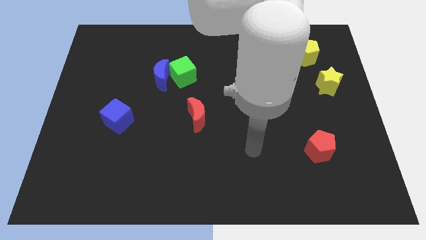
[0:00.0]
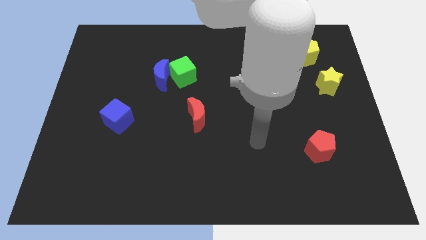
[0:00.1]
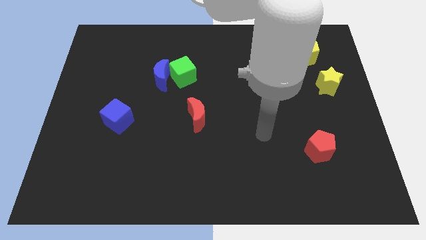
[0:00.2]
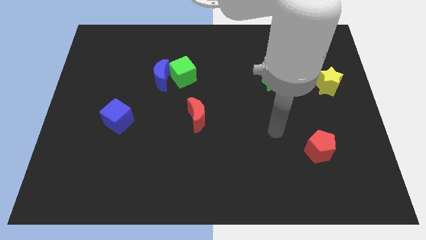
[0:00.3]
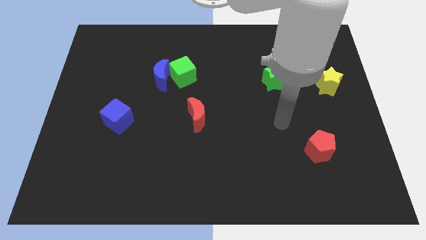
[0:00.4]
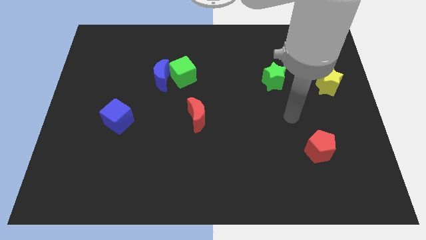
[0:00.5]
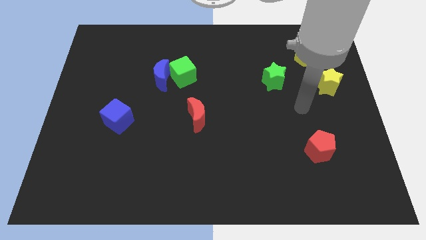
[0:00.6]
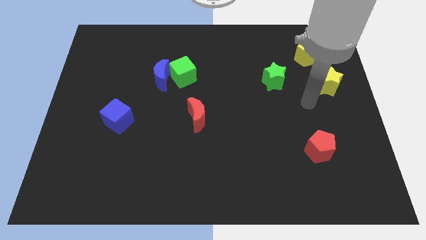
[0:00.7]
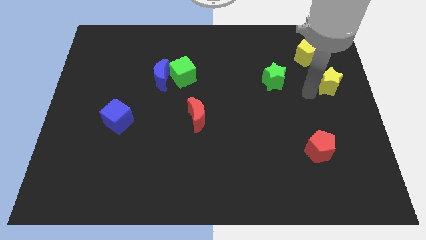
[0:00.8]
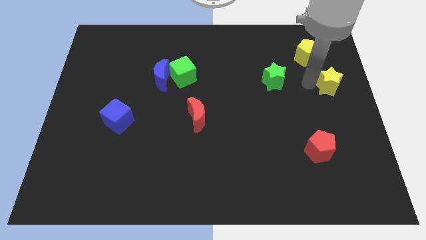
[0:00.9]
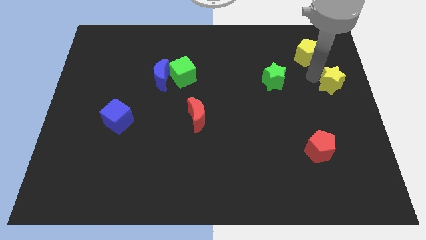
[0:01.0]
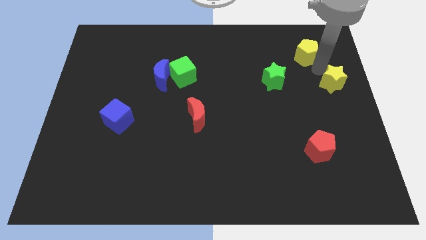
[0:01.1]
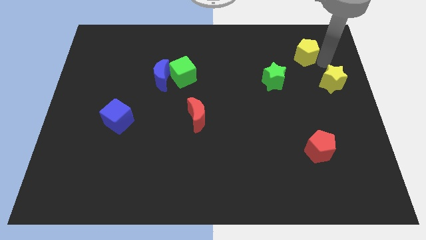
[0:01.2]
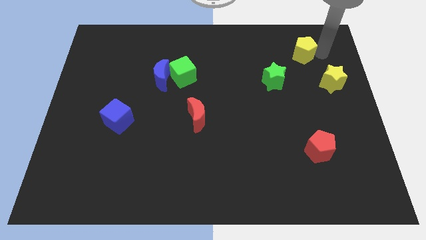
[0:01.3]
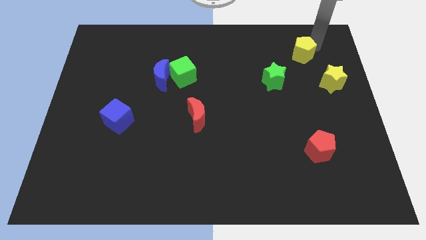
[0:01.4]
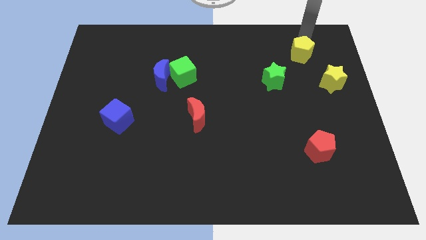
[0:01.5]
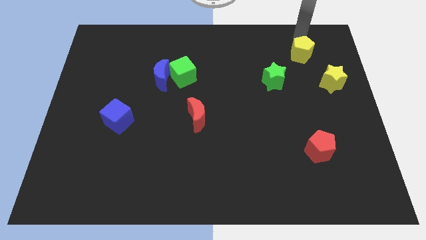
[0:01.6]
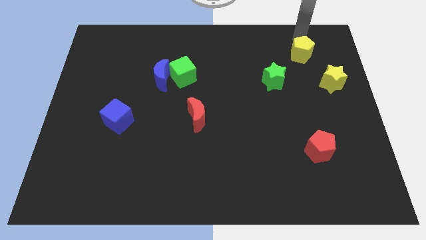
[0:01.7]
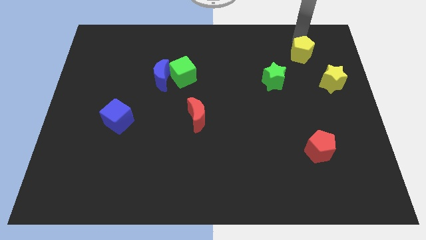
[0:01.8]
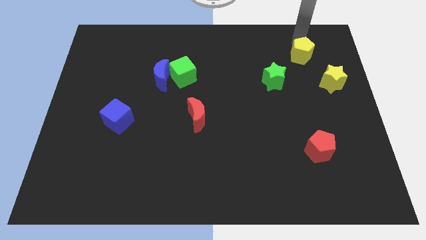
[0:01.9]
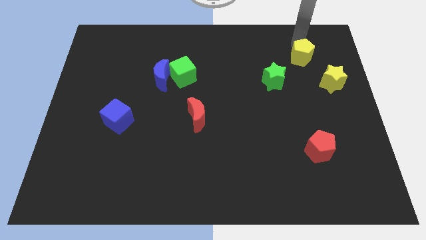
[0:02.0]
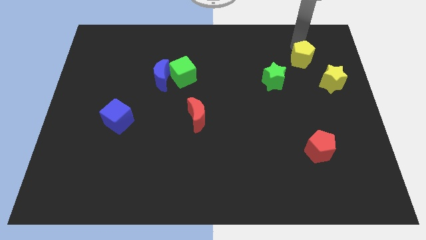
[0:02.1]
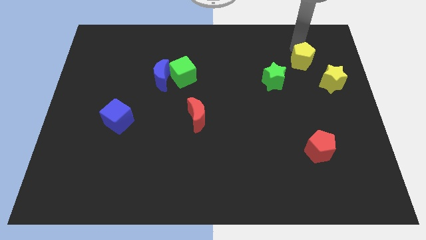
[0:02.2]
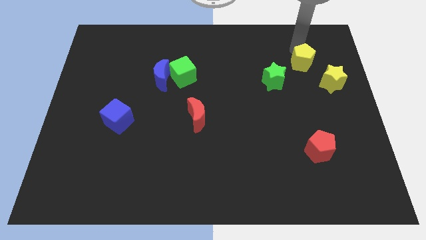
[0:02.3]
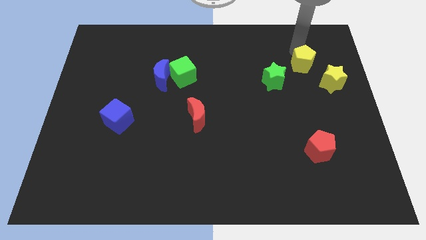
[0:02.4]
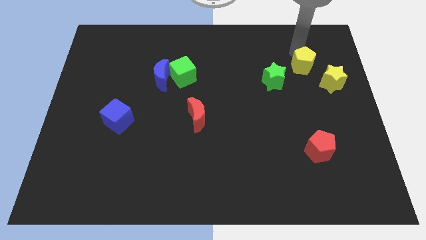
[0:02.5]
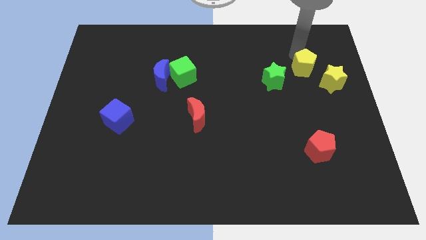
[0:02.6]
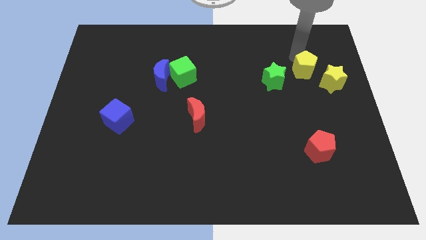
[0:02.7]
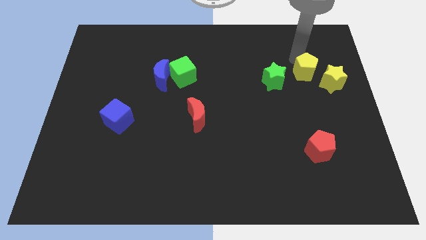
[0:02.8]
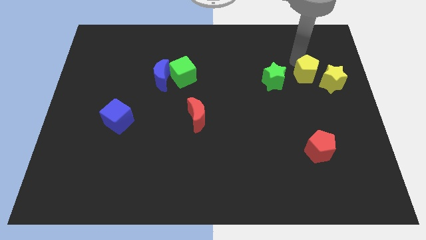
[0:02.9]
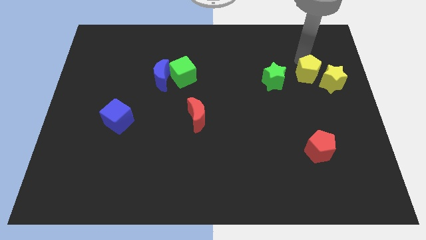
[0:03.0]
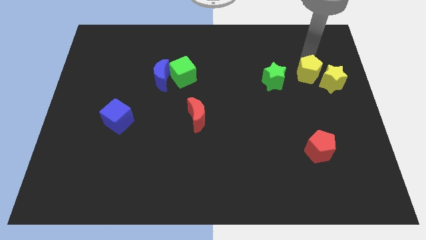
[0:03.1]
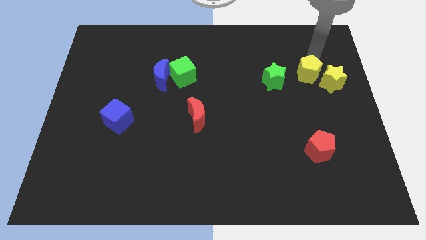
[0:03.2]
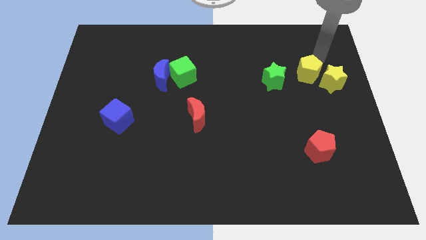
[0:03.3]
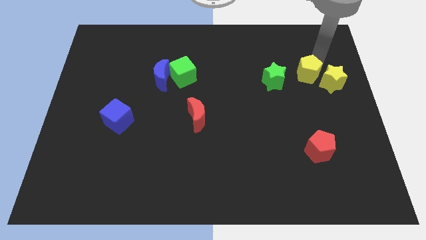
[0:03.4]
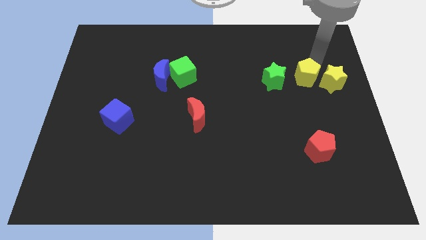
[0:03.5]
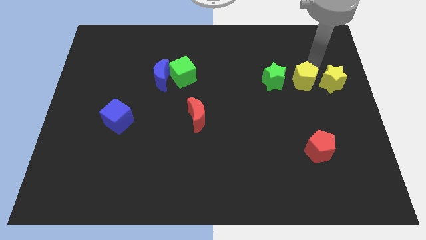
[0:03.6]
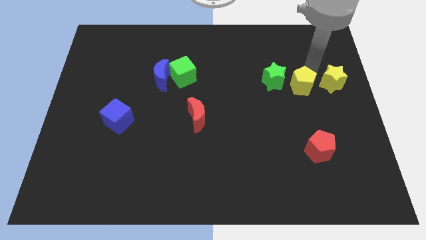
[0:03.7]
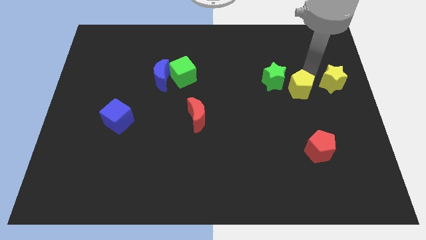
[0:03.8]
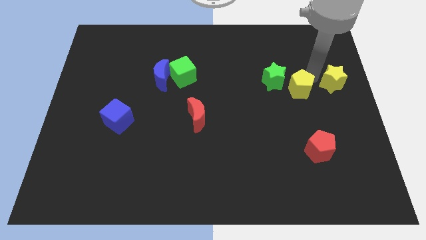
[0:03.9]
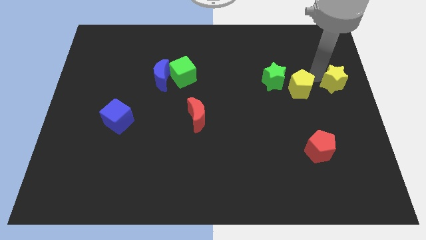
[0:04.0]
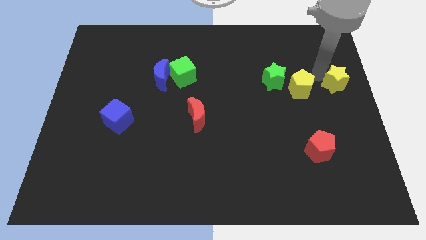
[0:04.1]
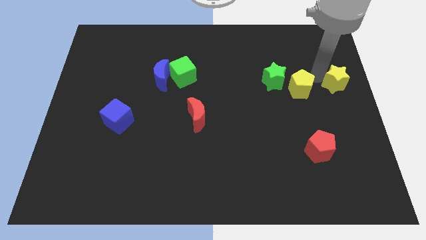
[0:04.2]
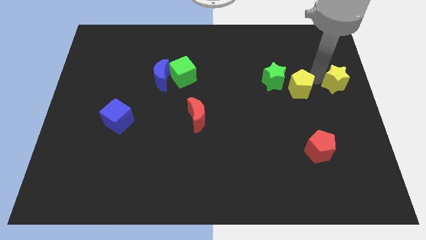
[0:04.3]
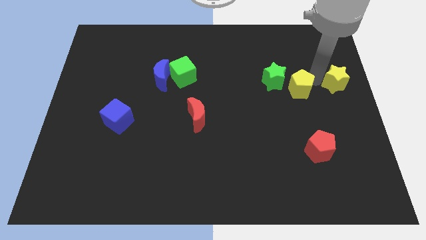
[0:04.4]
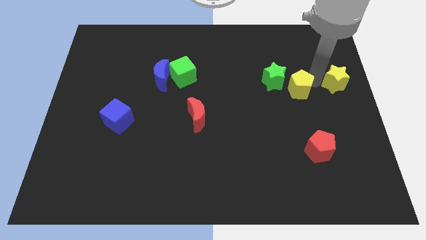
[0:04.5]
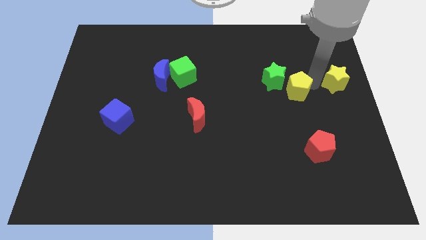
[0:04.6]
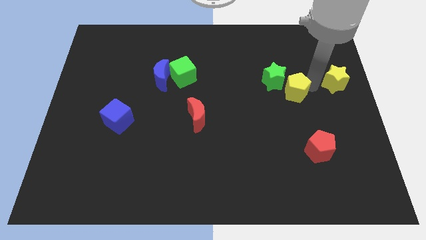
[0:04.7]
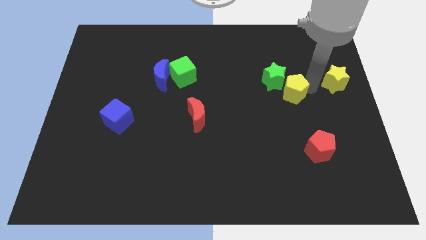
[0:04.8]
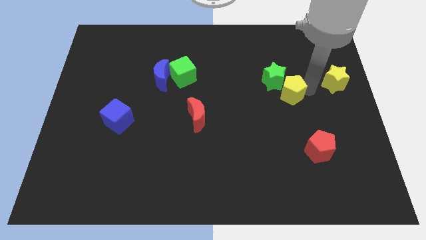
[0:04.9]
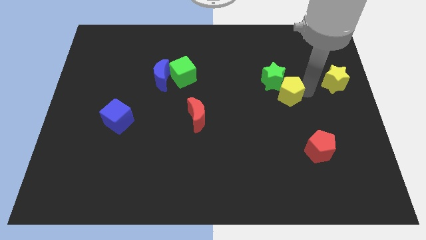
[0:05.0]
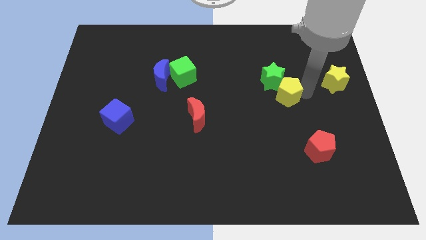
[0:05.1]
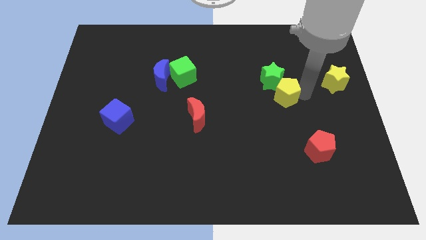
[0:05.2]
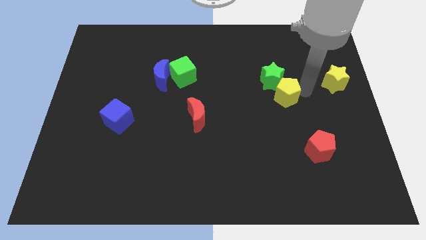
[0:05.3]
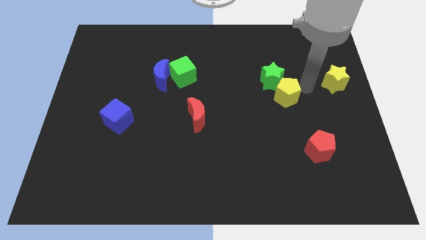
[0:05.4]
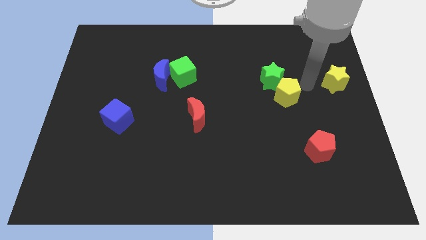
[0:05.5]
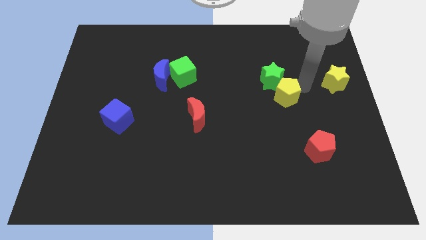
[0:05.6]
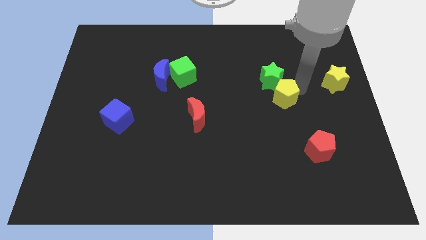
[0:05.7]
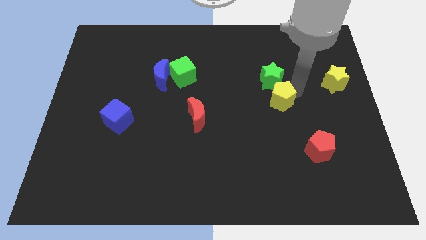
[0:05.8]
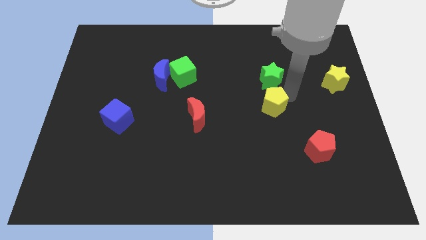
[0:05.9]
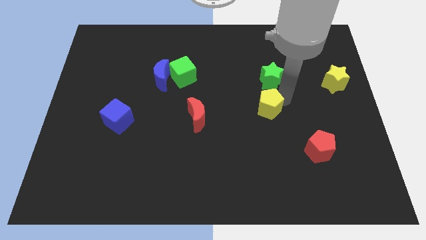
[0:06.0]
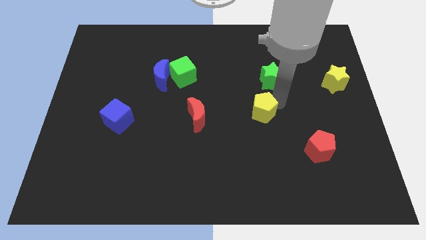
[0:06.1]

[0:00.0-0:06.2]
push the yellow pentagon downwards and to the left diagonally

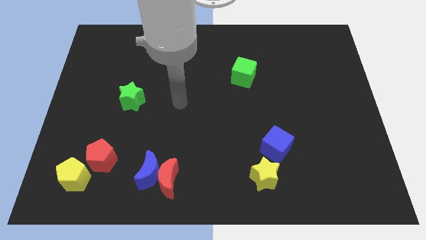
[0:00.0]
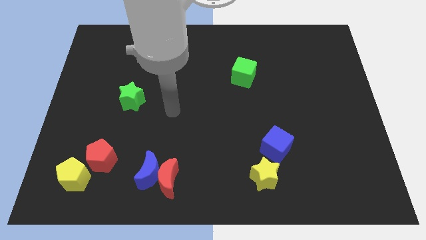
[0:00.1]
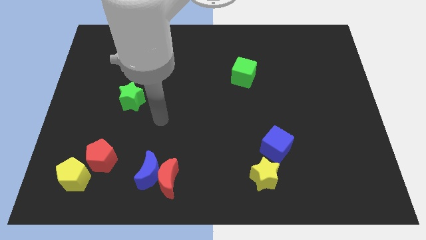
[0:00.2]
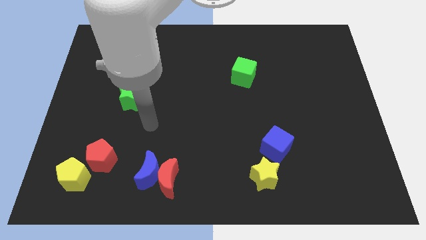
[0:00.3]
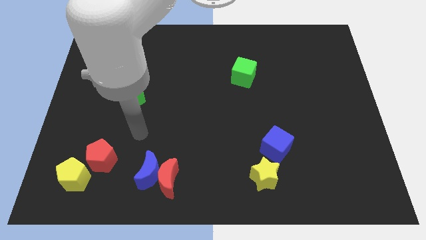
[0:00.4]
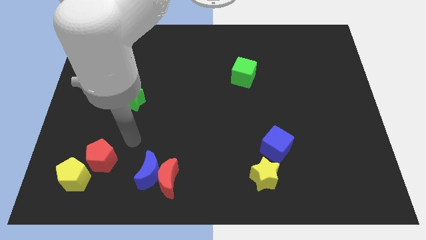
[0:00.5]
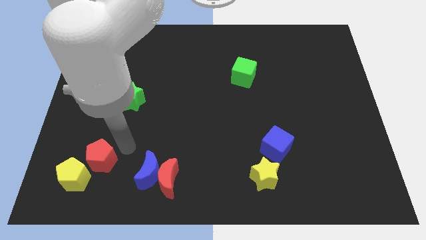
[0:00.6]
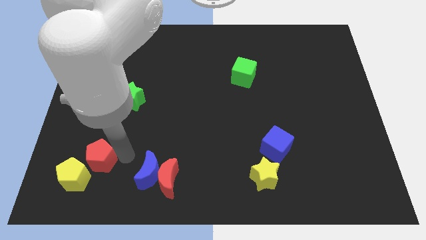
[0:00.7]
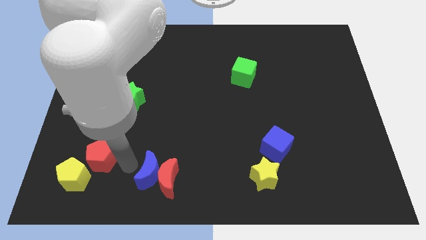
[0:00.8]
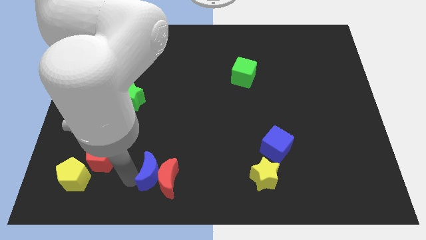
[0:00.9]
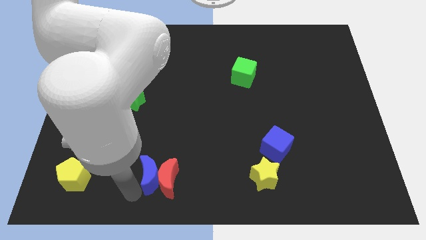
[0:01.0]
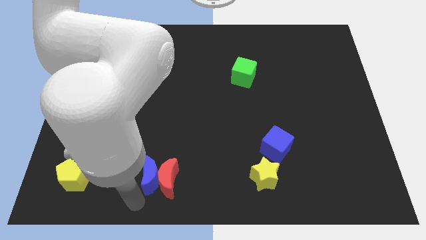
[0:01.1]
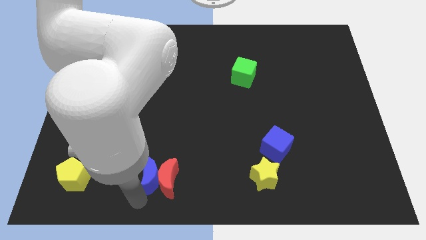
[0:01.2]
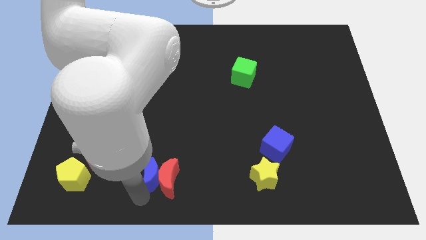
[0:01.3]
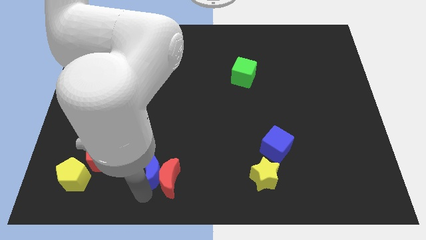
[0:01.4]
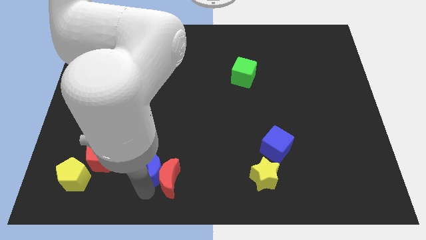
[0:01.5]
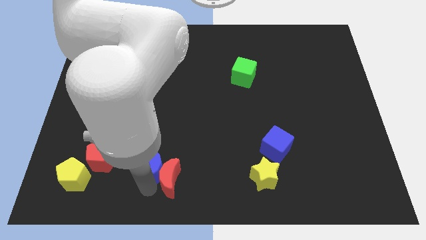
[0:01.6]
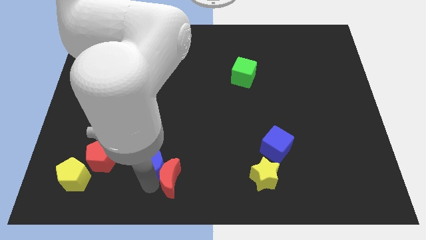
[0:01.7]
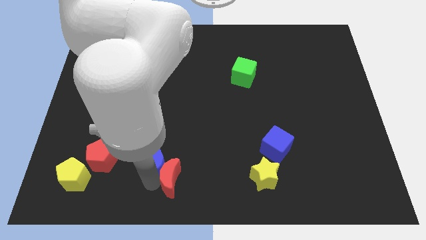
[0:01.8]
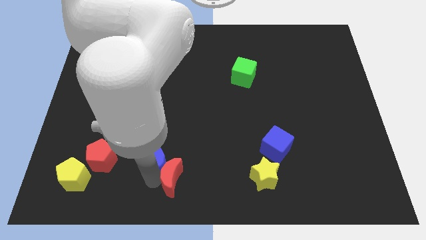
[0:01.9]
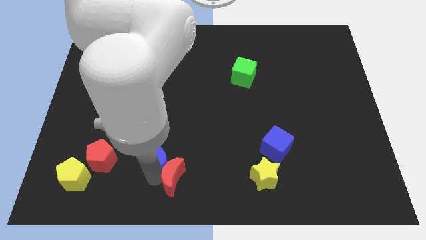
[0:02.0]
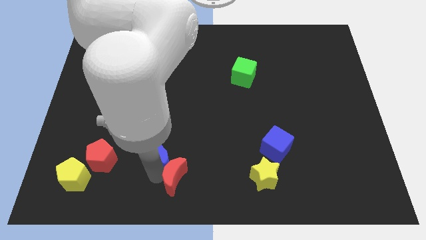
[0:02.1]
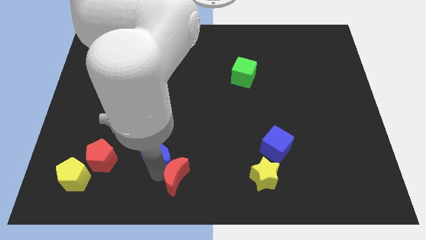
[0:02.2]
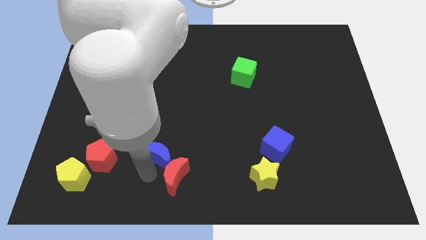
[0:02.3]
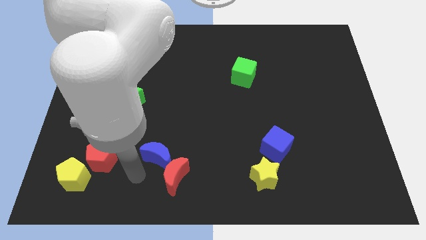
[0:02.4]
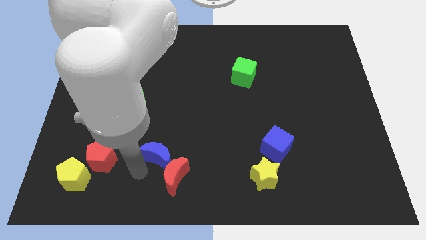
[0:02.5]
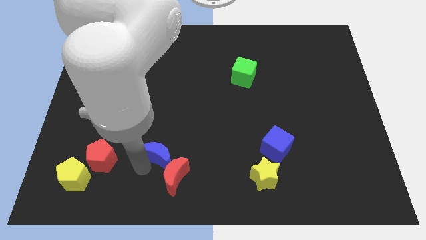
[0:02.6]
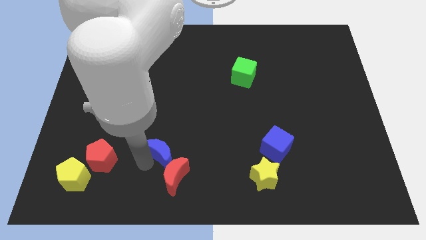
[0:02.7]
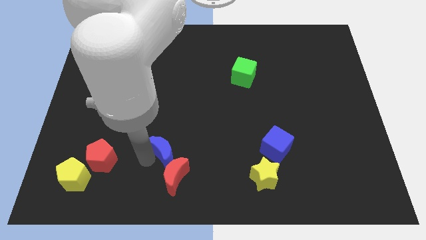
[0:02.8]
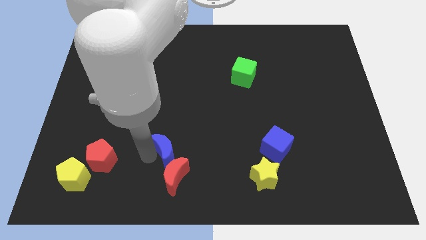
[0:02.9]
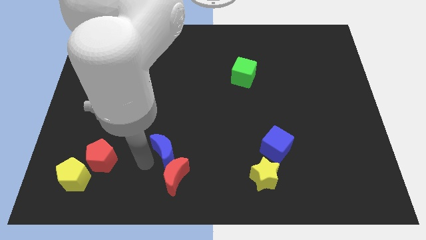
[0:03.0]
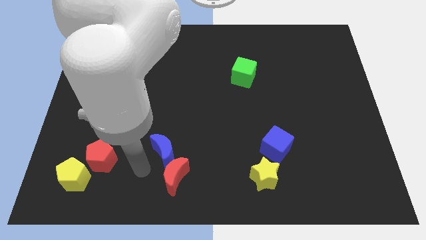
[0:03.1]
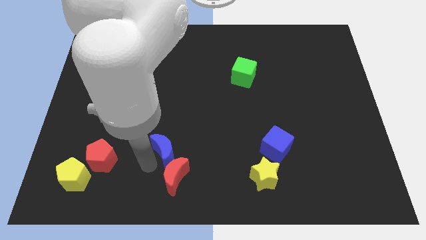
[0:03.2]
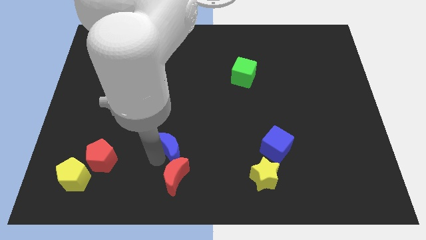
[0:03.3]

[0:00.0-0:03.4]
slightly push the blue moon up and right diagonally
